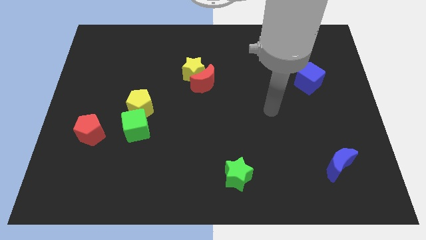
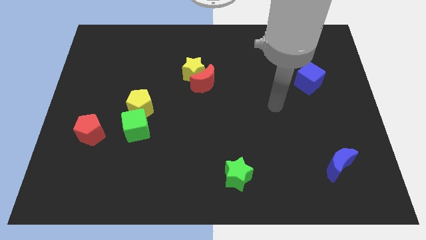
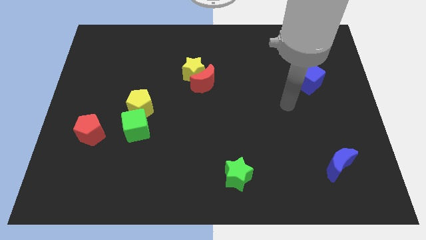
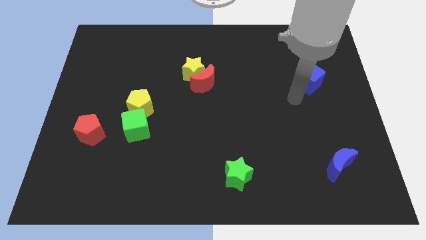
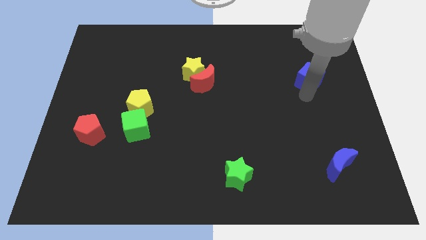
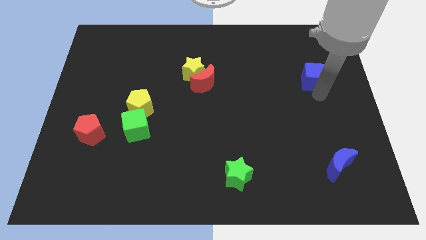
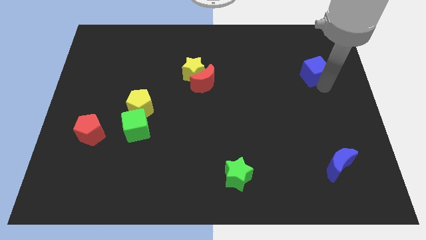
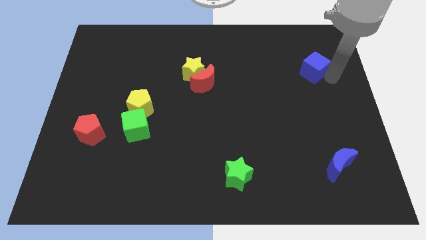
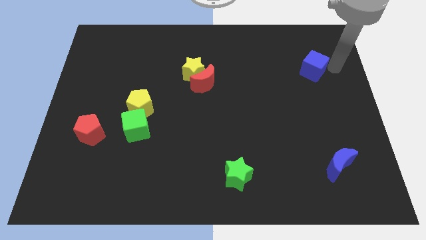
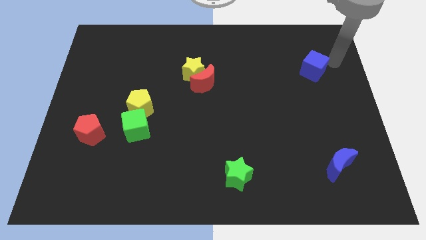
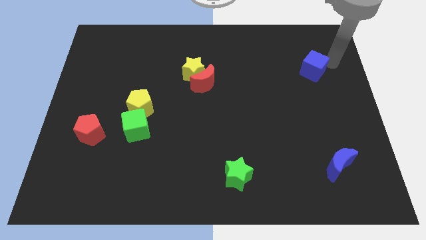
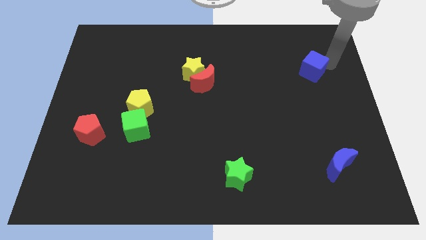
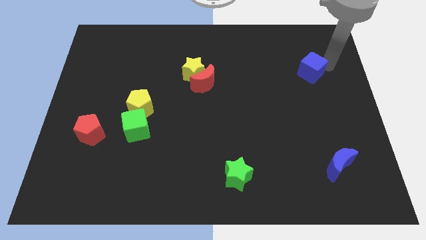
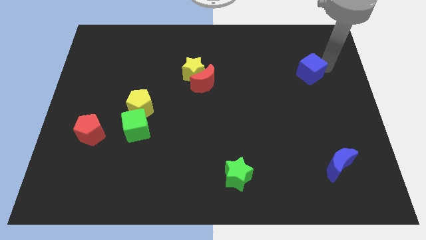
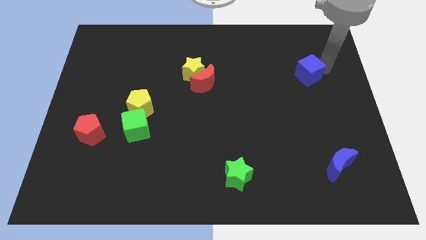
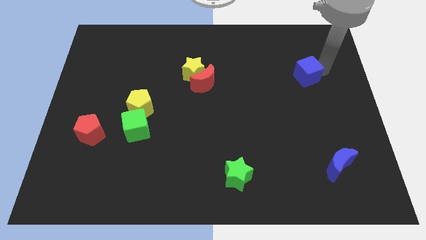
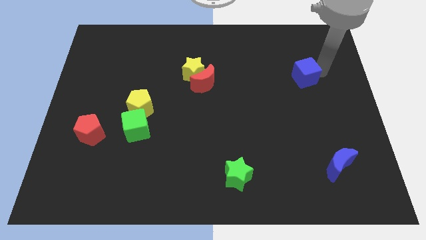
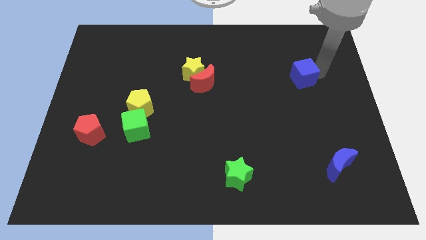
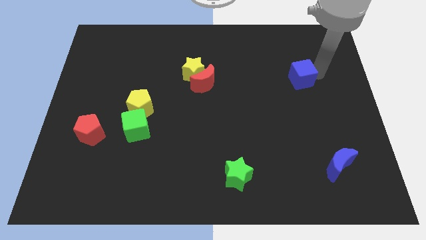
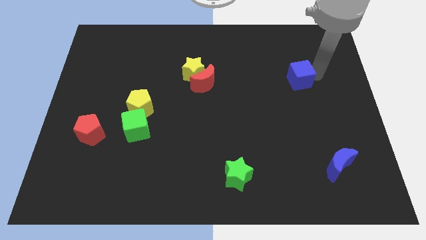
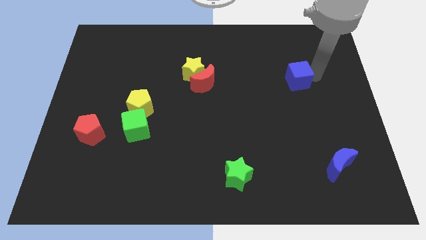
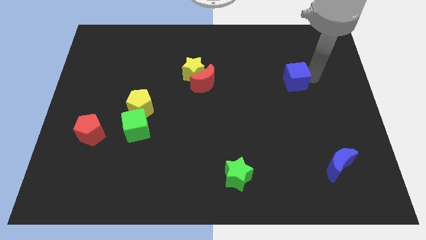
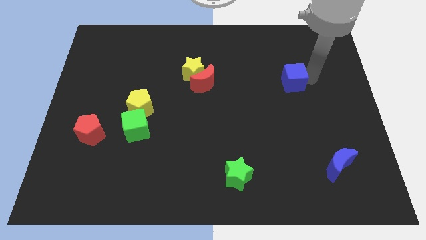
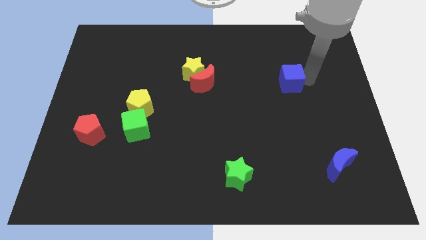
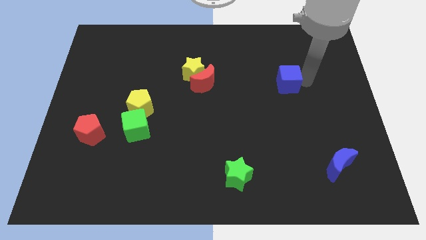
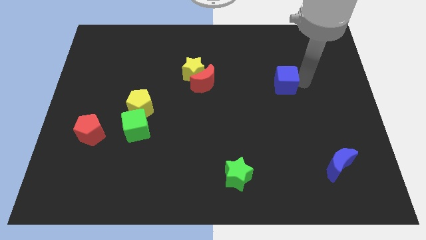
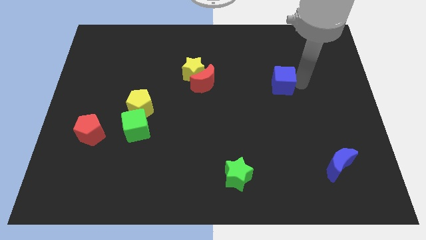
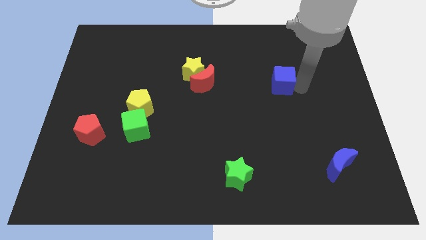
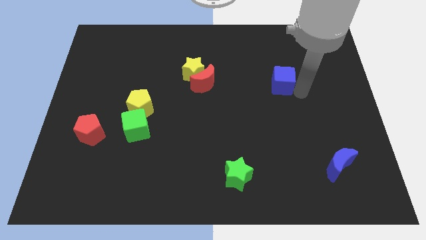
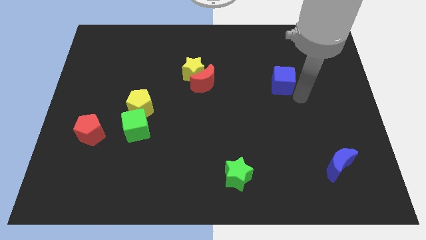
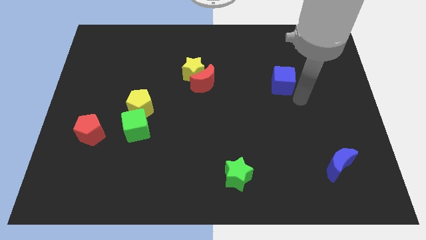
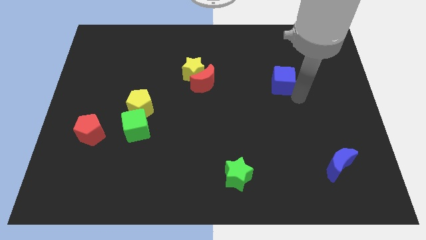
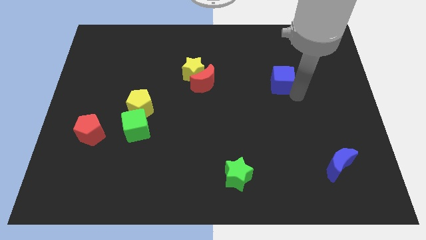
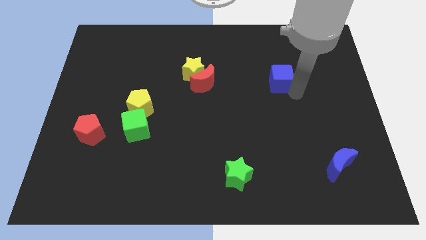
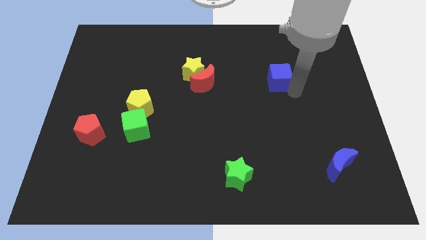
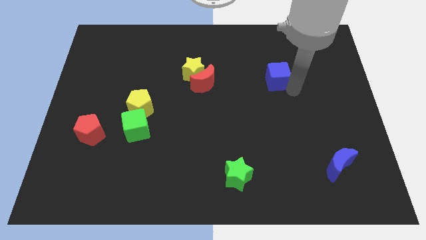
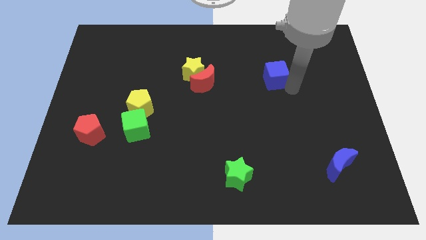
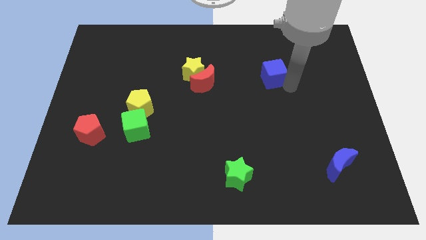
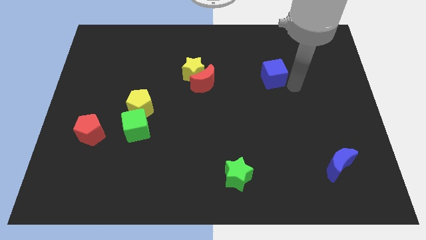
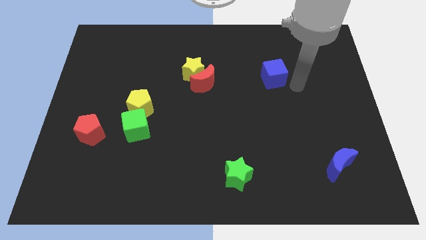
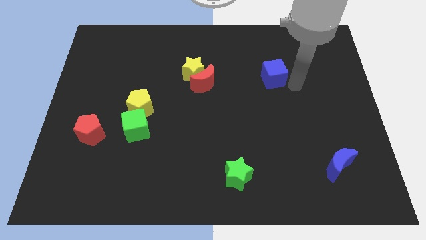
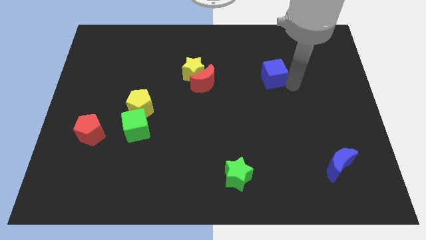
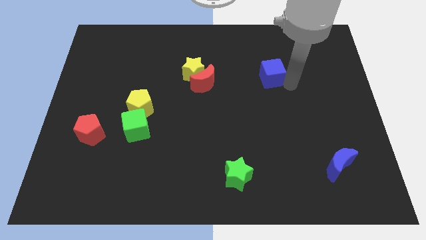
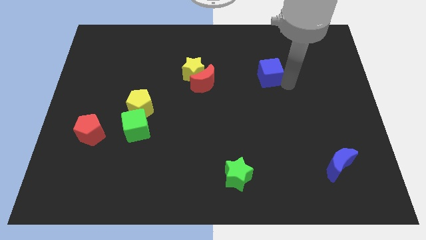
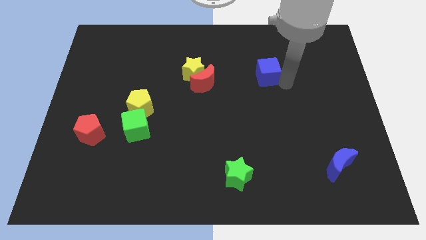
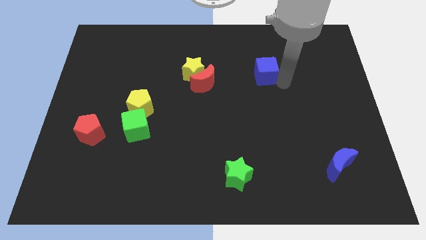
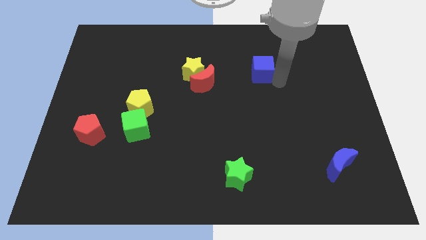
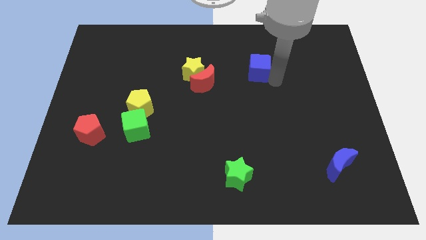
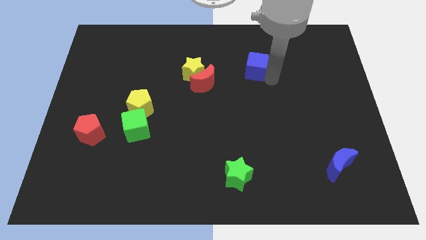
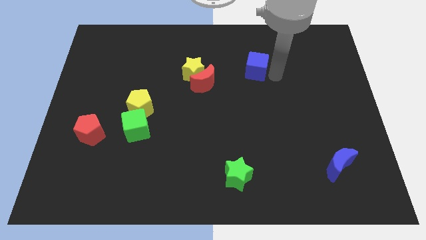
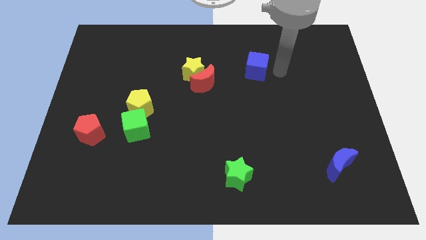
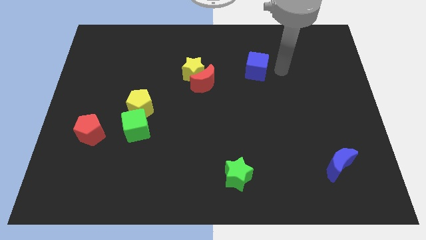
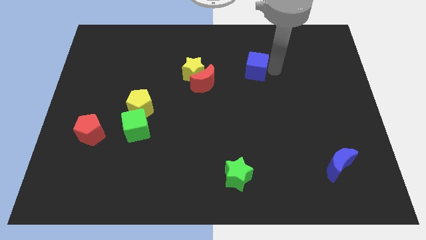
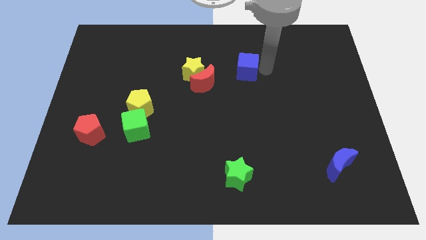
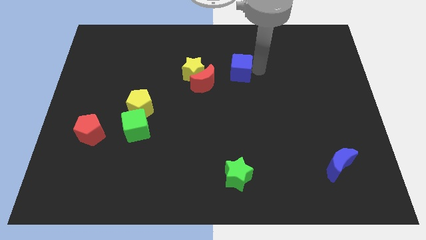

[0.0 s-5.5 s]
push the blue cube diagonally up and to the right of the red moon

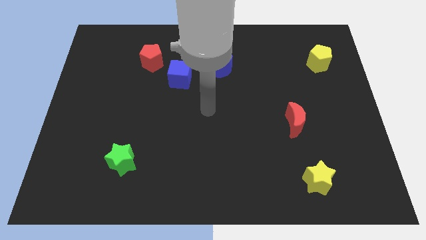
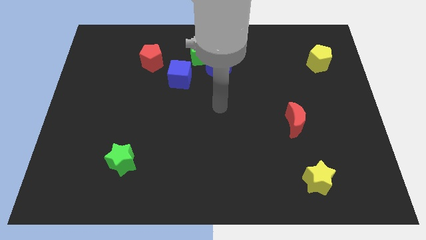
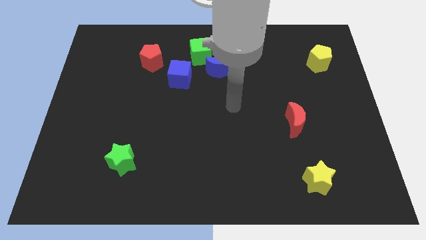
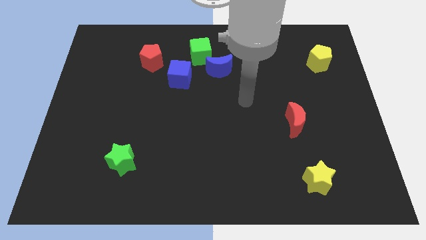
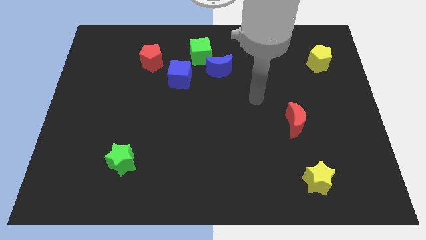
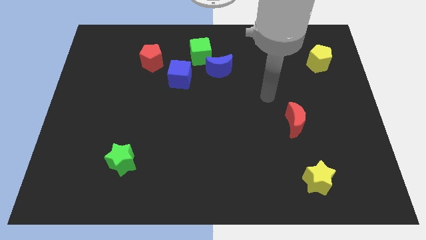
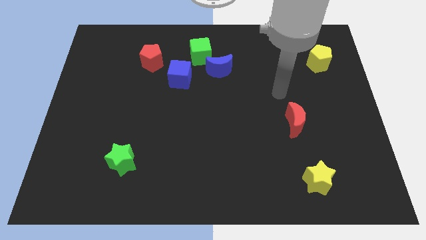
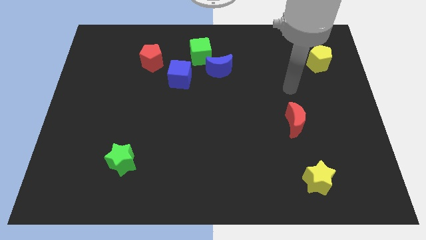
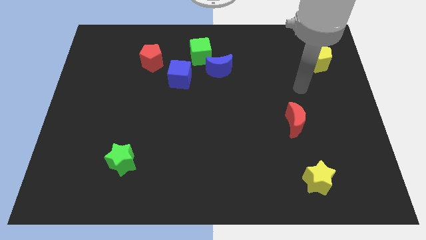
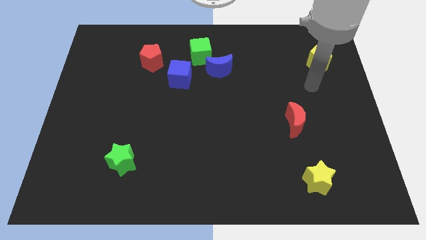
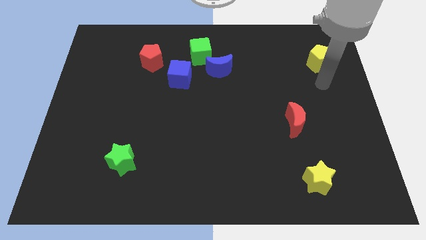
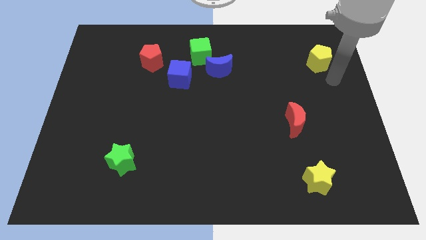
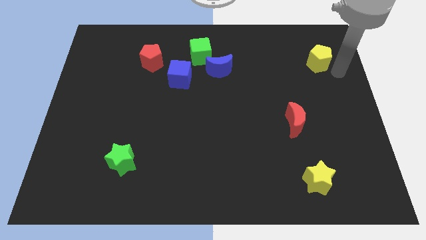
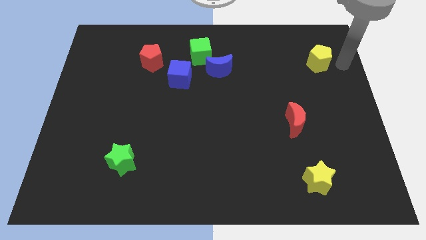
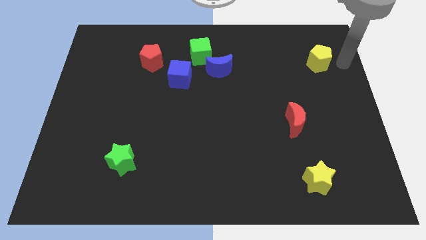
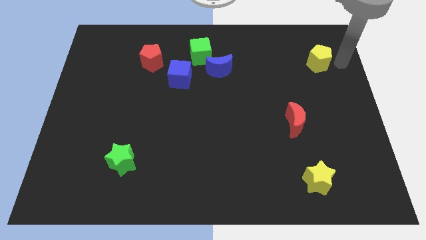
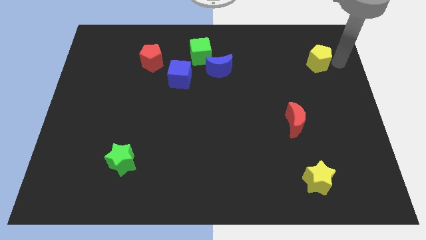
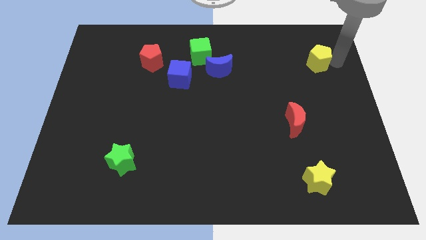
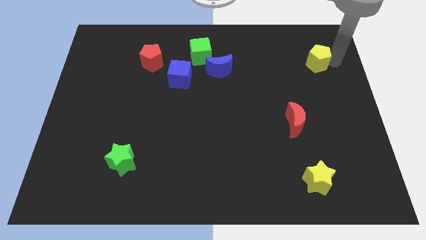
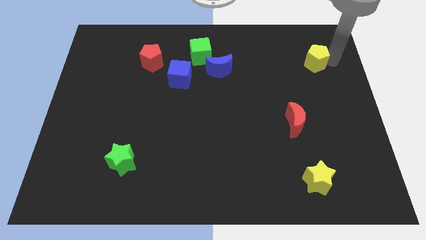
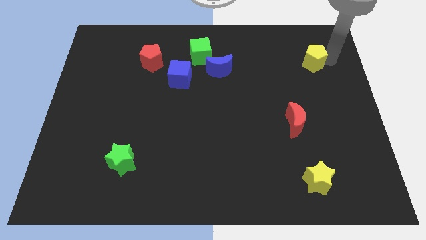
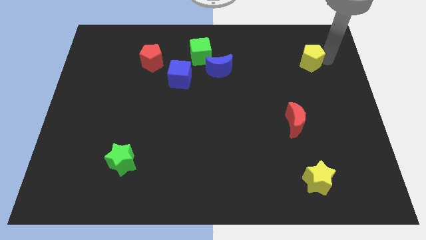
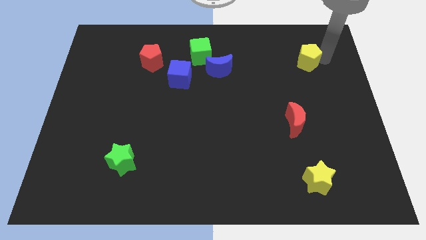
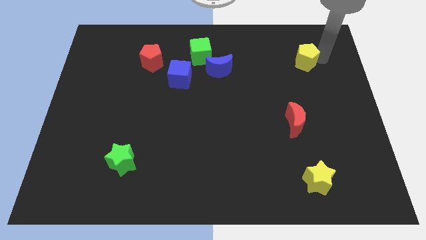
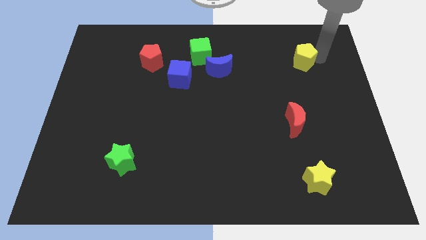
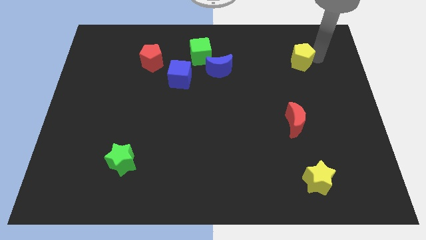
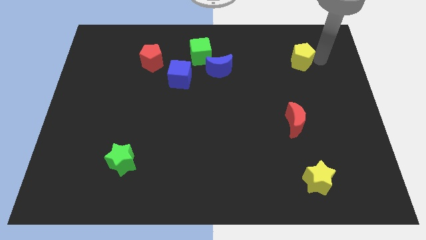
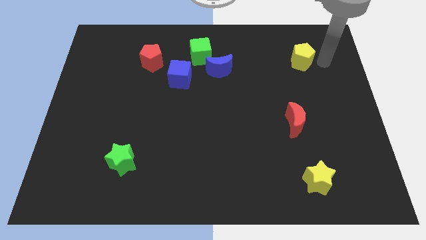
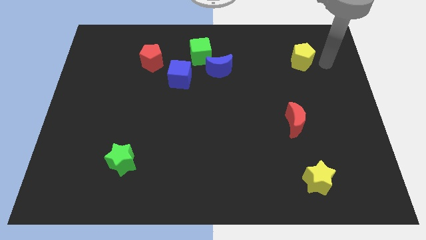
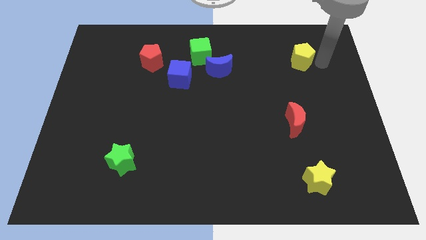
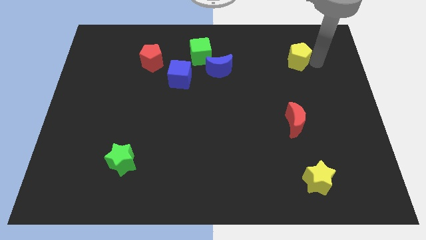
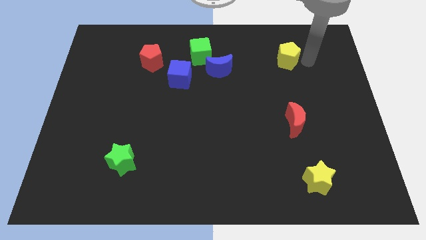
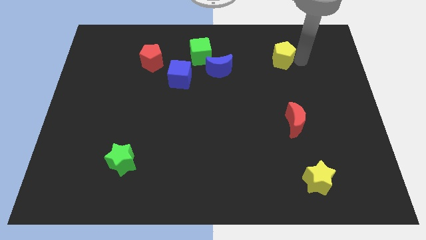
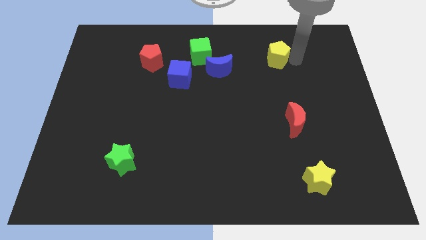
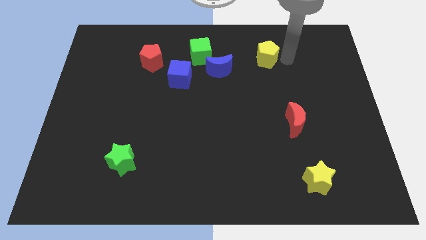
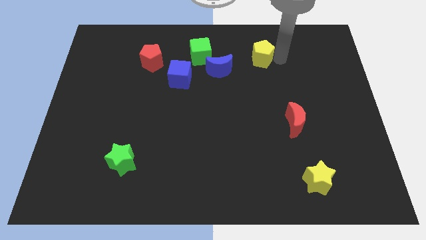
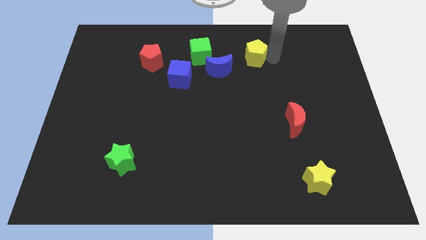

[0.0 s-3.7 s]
move the yellow pentagon to the top right side of the blue moon
